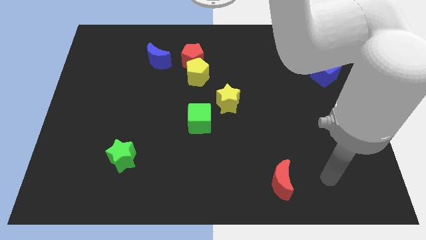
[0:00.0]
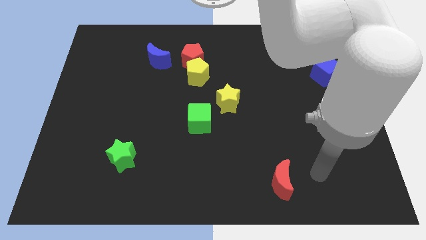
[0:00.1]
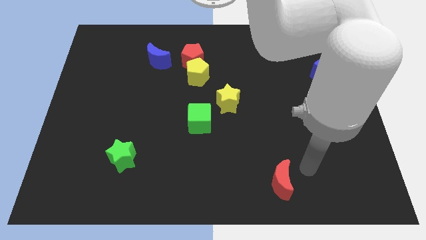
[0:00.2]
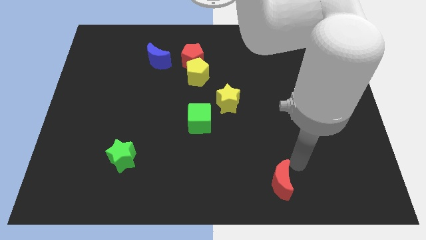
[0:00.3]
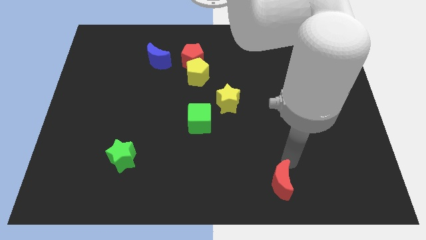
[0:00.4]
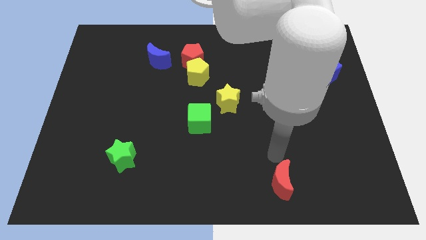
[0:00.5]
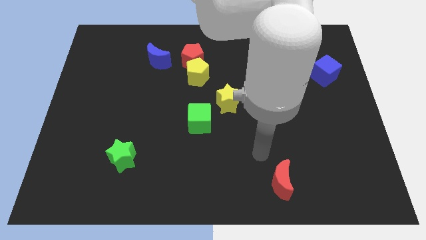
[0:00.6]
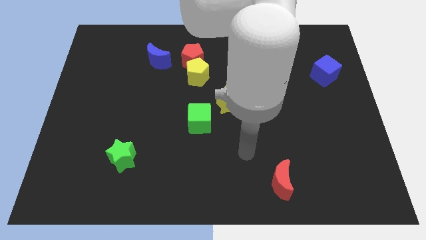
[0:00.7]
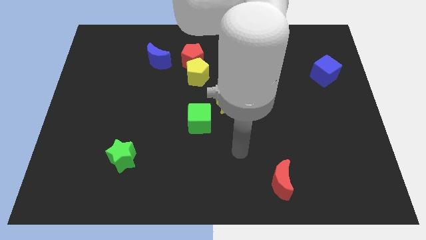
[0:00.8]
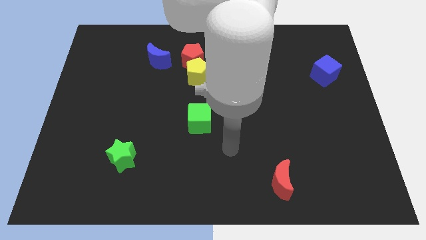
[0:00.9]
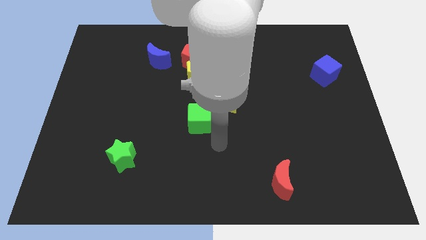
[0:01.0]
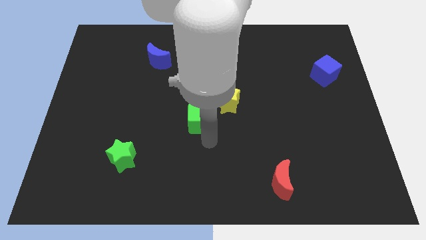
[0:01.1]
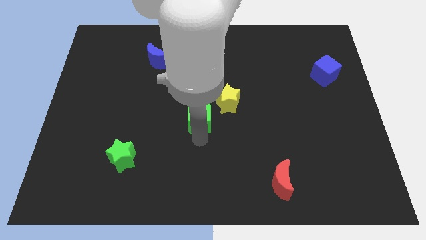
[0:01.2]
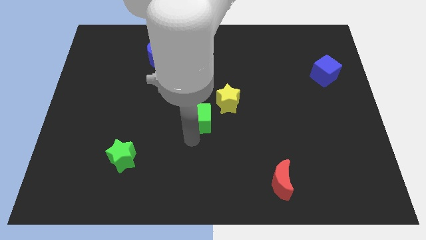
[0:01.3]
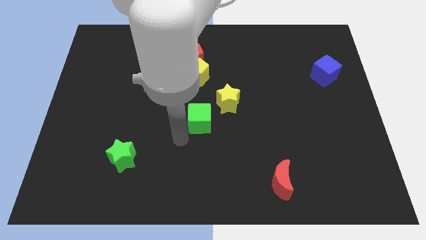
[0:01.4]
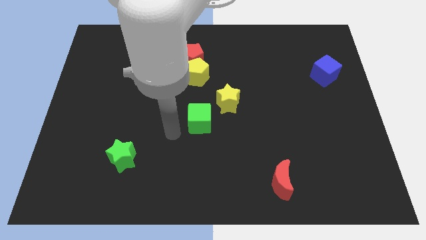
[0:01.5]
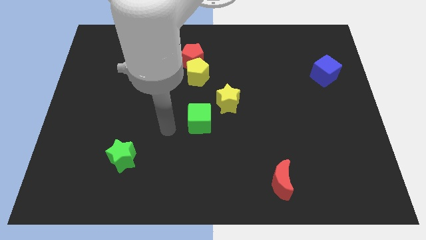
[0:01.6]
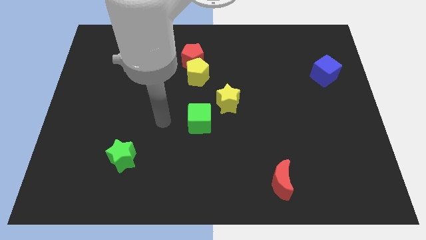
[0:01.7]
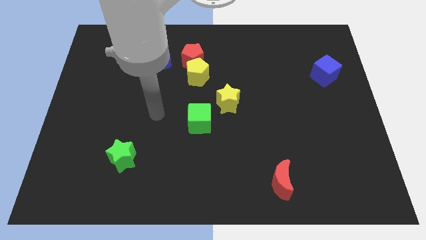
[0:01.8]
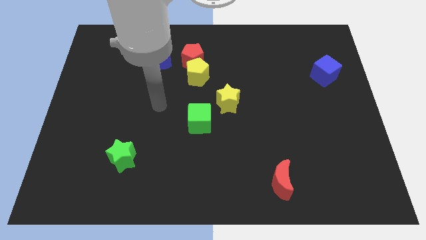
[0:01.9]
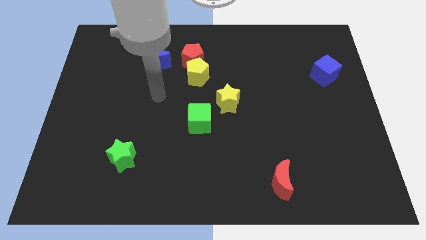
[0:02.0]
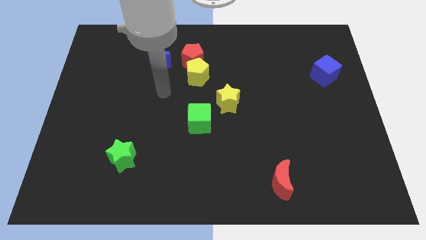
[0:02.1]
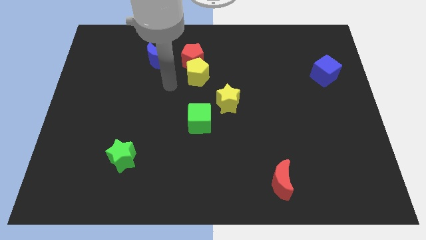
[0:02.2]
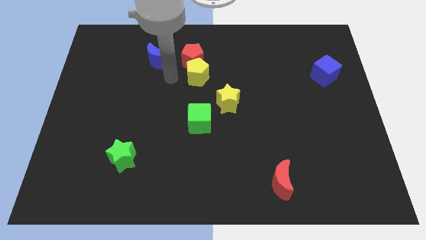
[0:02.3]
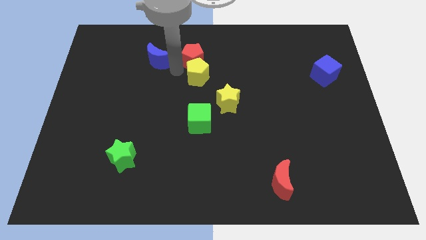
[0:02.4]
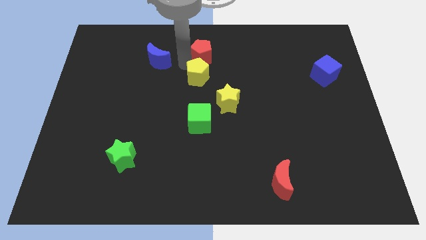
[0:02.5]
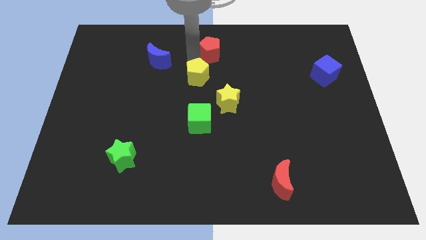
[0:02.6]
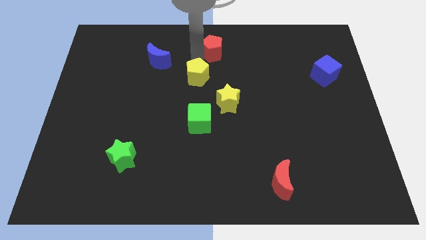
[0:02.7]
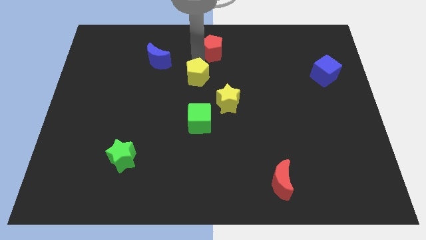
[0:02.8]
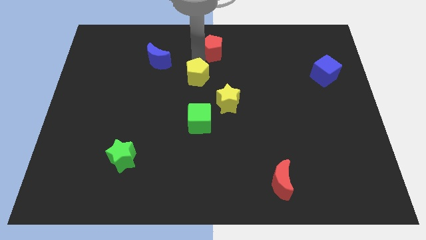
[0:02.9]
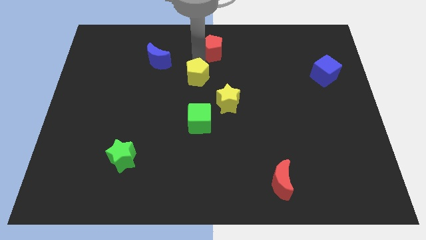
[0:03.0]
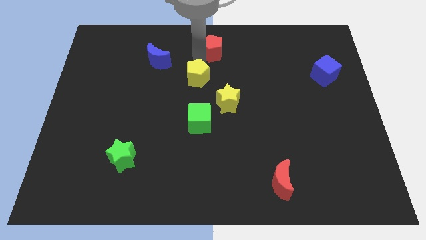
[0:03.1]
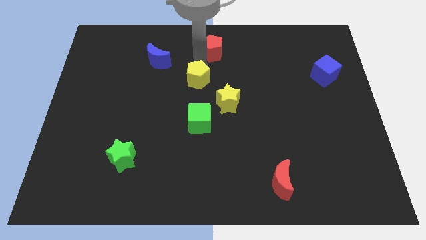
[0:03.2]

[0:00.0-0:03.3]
pull the yellow pentagon apart from the red pentagon

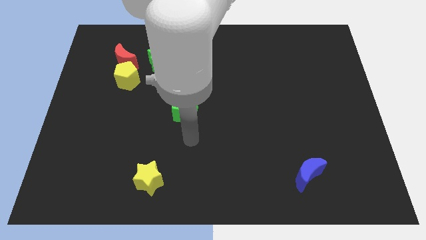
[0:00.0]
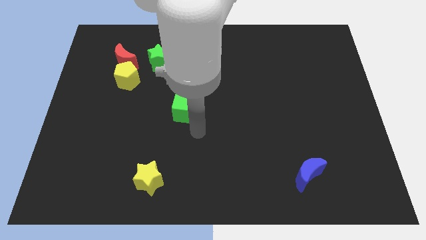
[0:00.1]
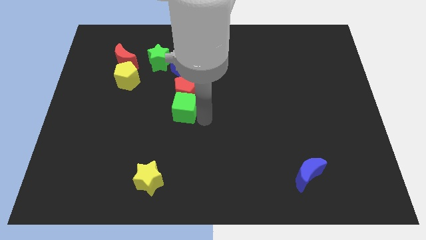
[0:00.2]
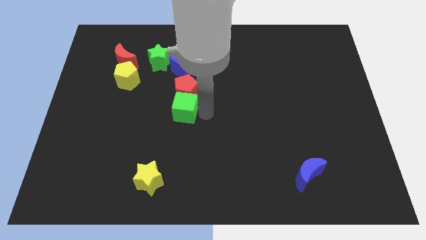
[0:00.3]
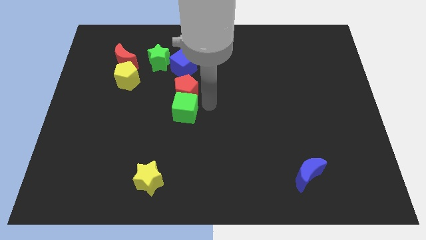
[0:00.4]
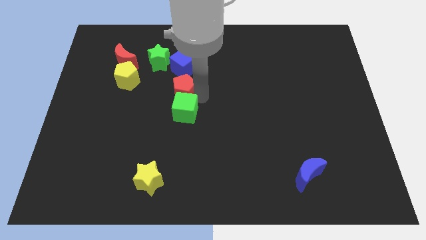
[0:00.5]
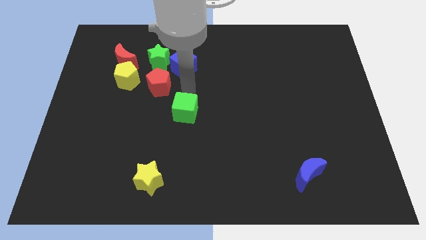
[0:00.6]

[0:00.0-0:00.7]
pull the green cube apart from the red pentagon

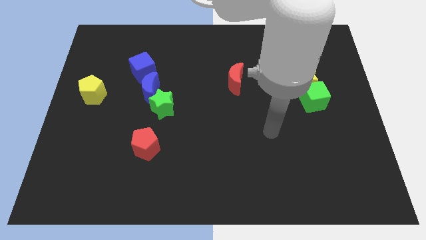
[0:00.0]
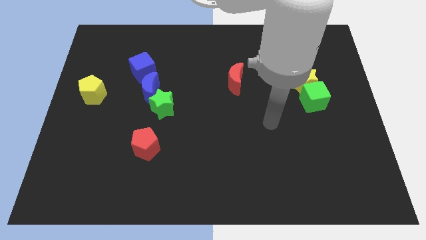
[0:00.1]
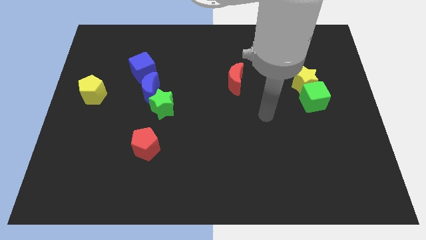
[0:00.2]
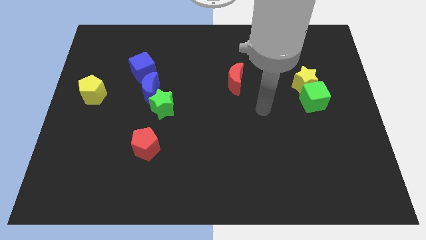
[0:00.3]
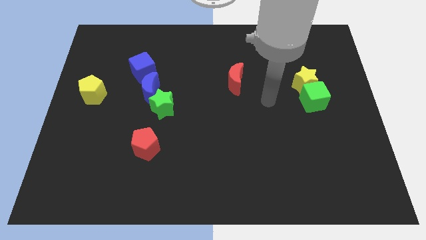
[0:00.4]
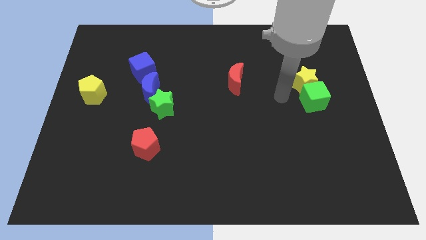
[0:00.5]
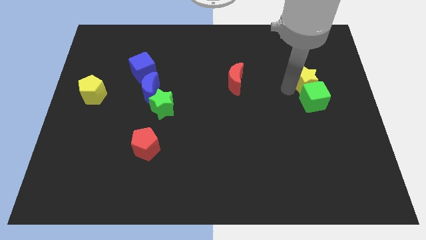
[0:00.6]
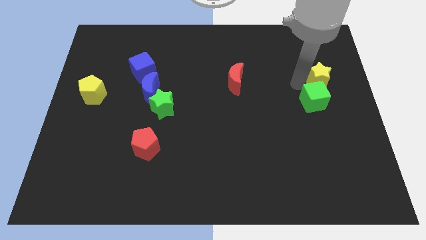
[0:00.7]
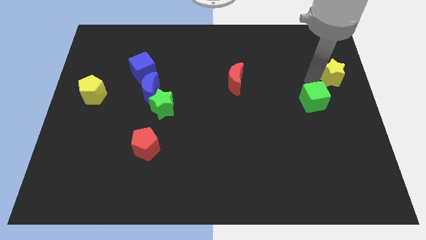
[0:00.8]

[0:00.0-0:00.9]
pull the green cube apart from the yellow star

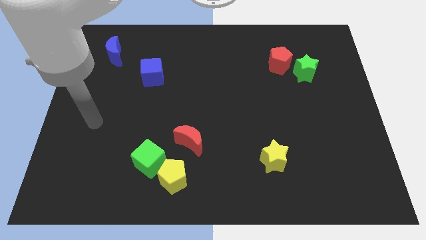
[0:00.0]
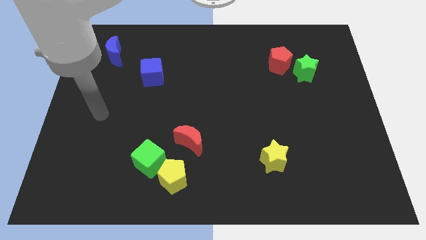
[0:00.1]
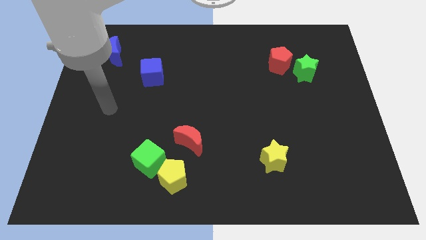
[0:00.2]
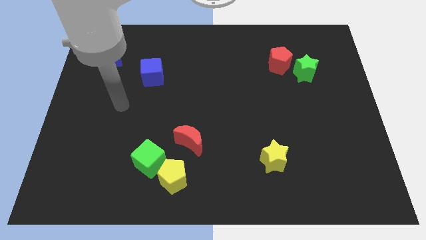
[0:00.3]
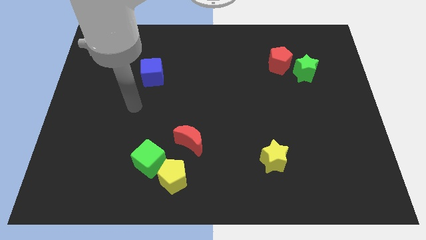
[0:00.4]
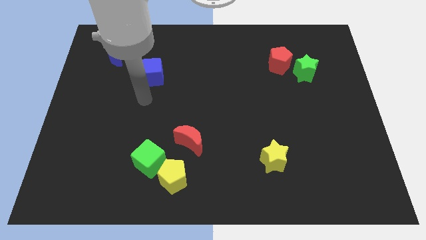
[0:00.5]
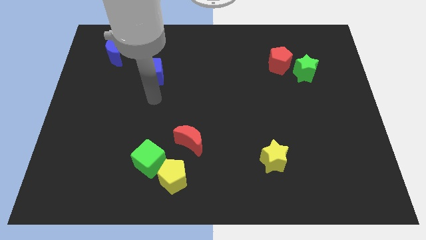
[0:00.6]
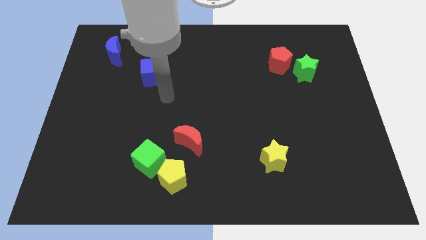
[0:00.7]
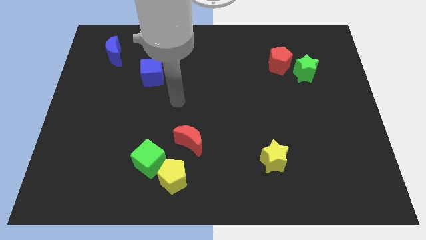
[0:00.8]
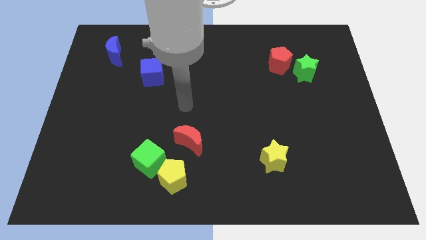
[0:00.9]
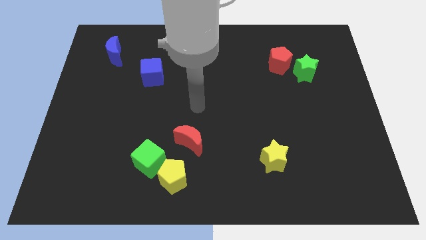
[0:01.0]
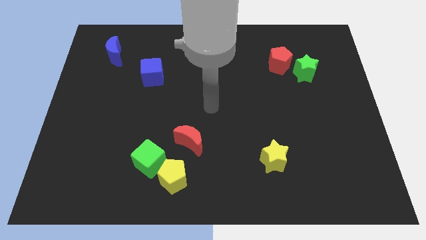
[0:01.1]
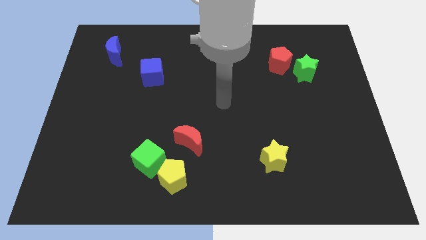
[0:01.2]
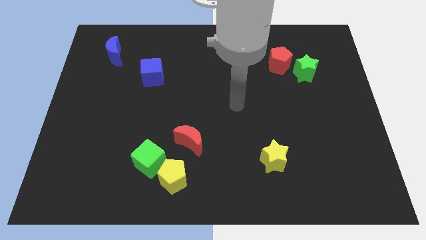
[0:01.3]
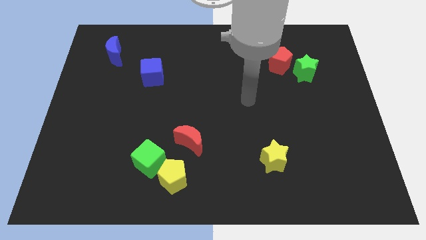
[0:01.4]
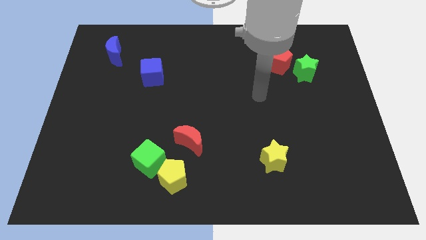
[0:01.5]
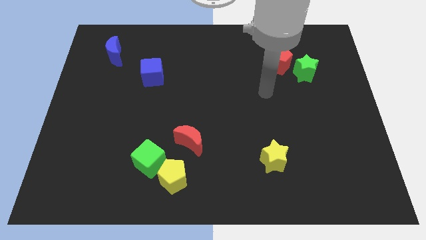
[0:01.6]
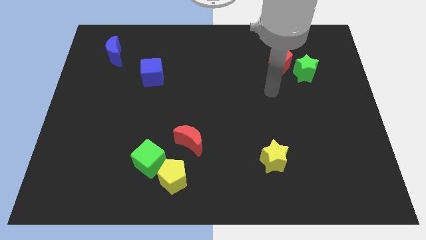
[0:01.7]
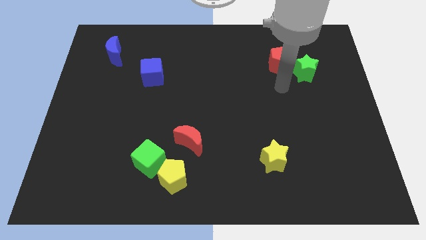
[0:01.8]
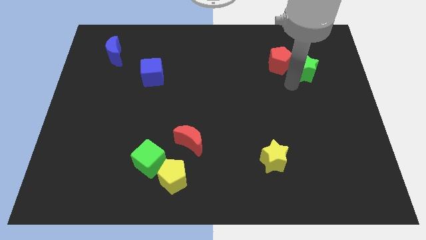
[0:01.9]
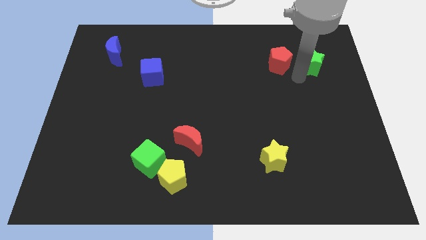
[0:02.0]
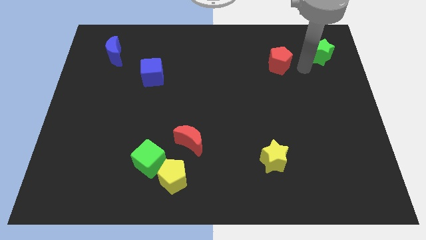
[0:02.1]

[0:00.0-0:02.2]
move the red pentagon away from the green star

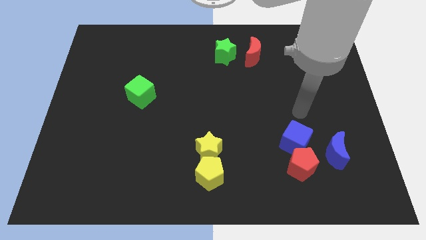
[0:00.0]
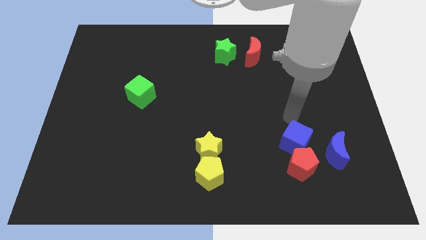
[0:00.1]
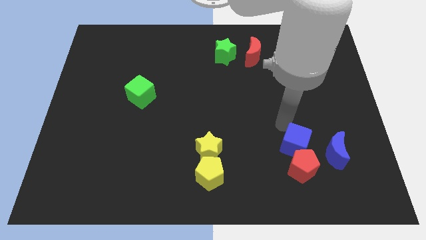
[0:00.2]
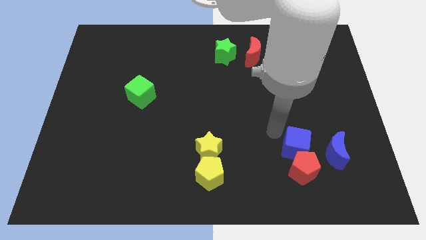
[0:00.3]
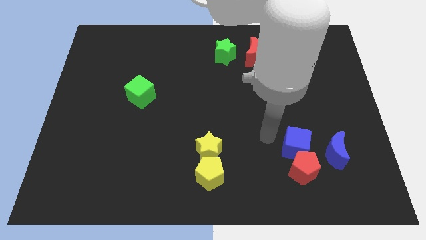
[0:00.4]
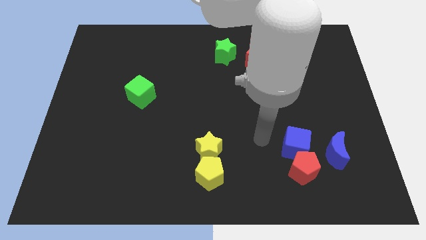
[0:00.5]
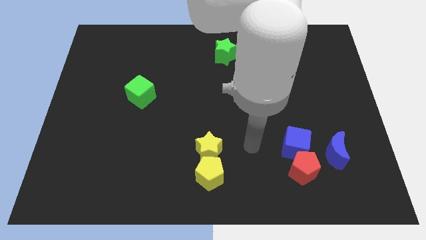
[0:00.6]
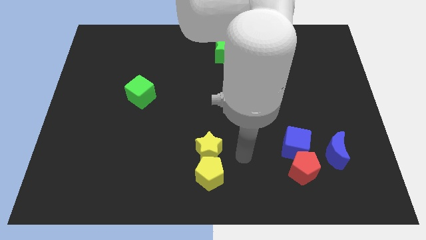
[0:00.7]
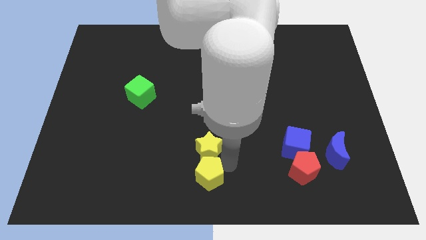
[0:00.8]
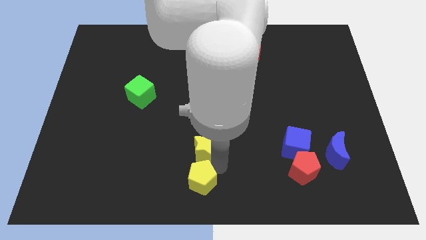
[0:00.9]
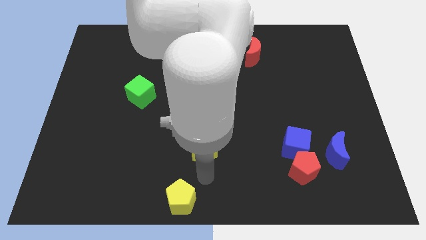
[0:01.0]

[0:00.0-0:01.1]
separate the yellow star from the yellow pentagon

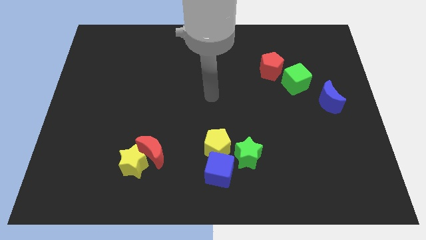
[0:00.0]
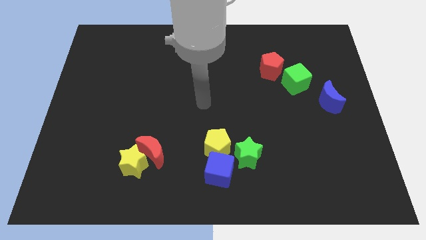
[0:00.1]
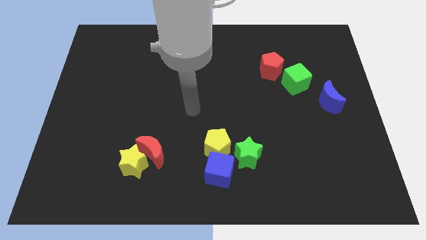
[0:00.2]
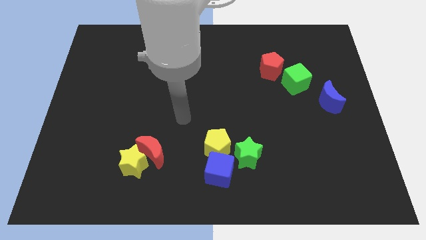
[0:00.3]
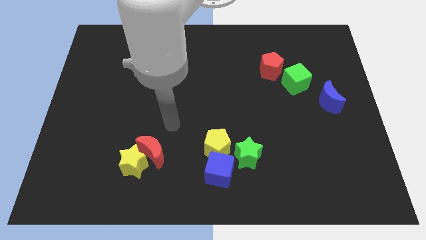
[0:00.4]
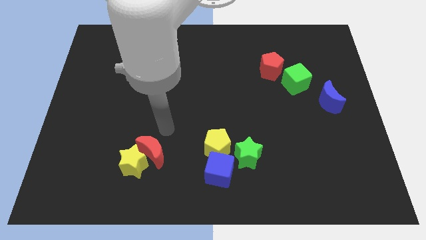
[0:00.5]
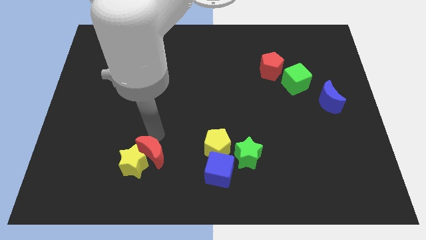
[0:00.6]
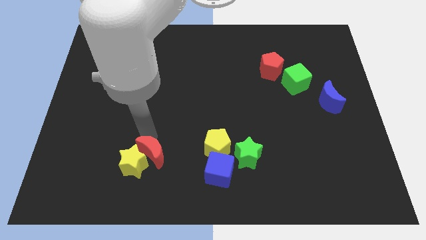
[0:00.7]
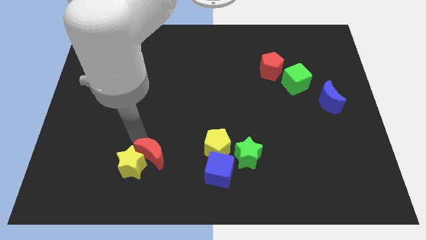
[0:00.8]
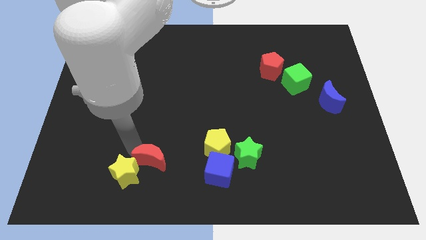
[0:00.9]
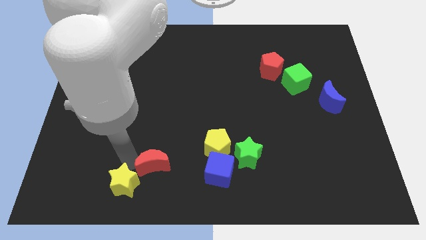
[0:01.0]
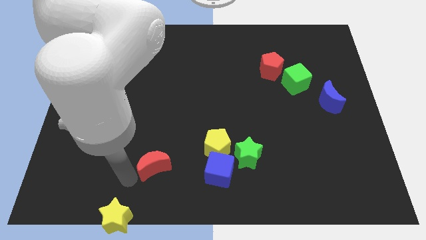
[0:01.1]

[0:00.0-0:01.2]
pull the red moon apart from the yellow star
